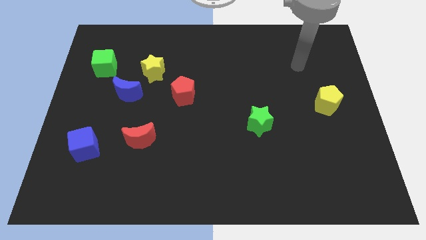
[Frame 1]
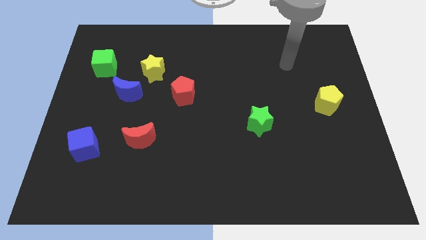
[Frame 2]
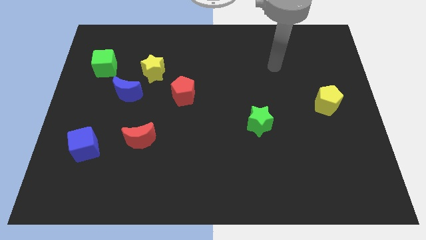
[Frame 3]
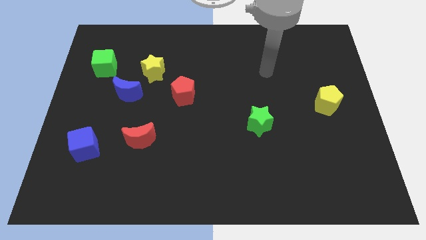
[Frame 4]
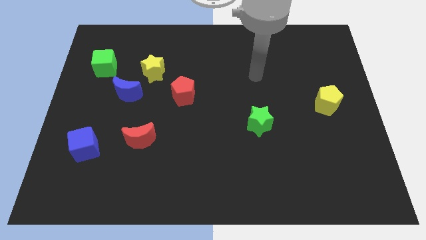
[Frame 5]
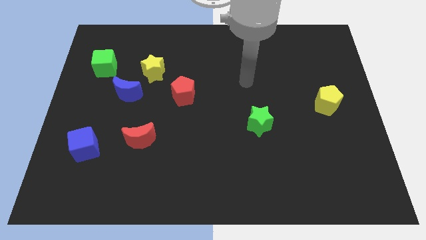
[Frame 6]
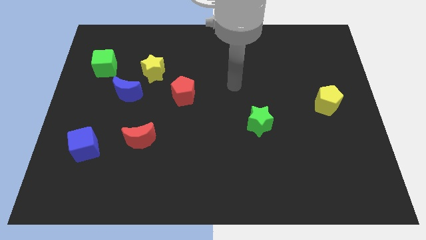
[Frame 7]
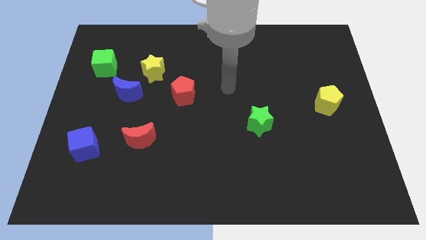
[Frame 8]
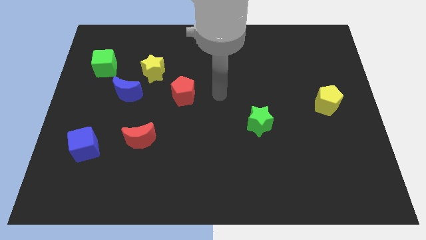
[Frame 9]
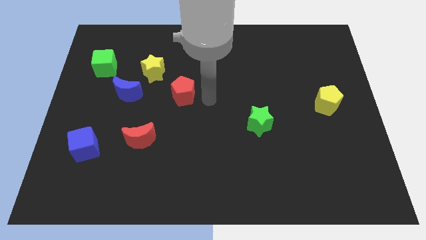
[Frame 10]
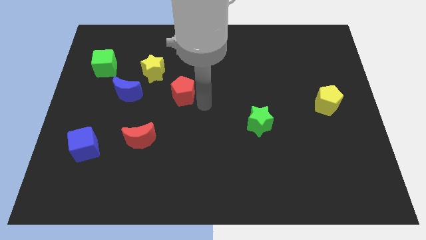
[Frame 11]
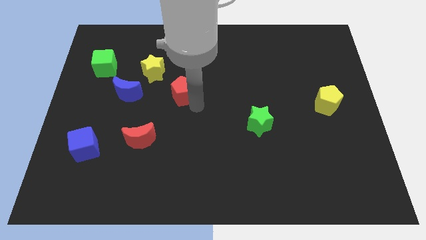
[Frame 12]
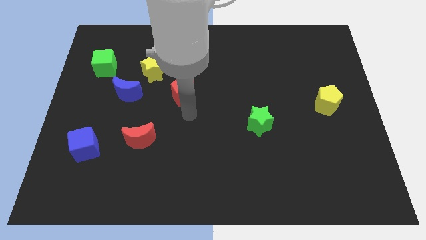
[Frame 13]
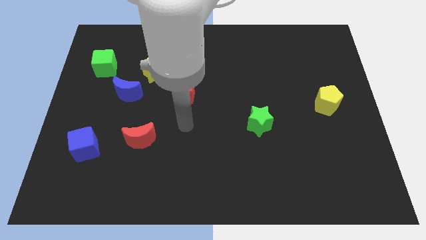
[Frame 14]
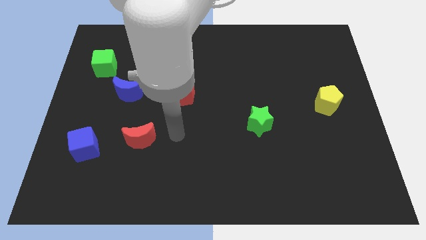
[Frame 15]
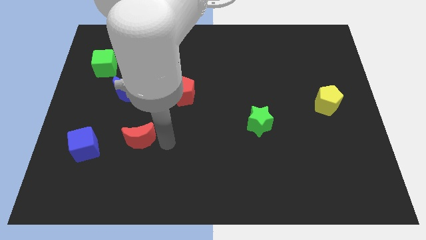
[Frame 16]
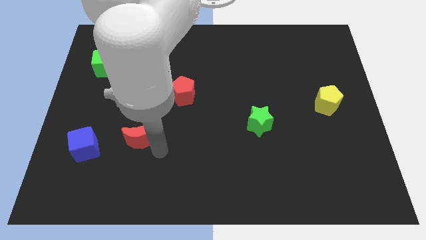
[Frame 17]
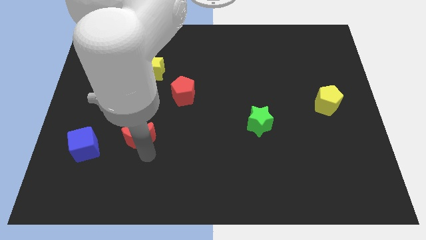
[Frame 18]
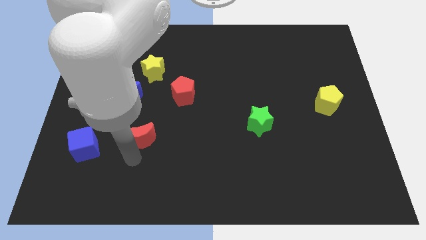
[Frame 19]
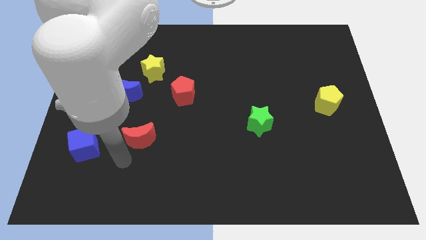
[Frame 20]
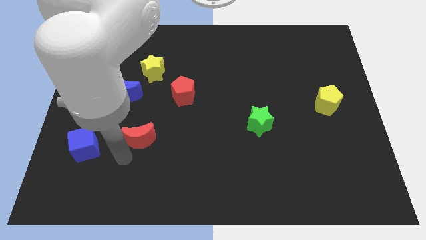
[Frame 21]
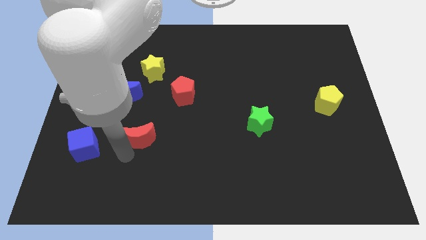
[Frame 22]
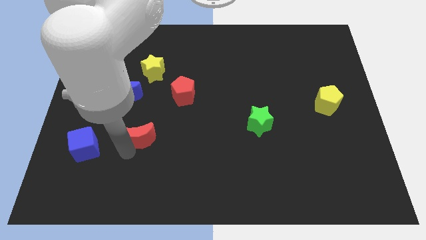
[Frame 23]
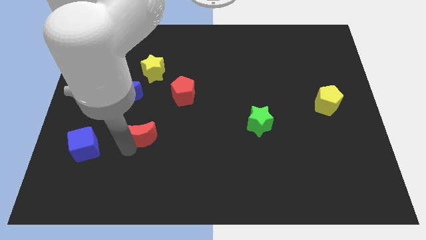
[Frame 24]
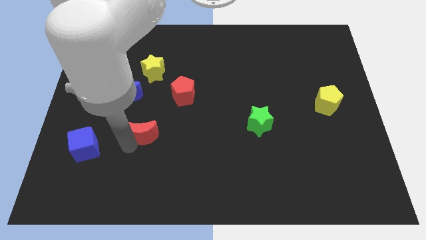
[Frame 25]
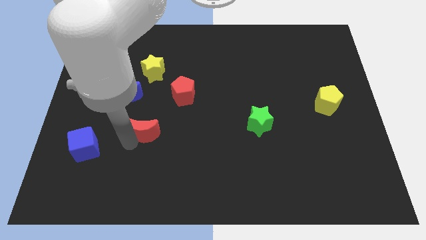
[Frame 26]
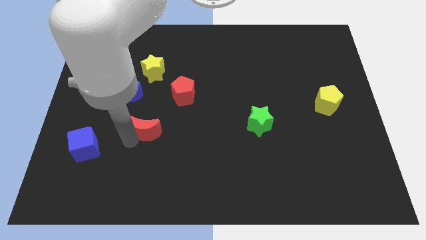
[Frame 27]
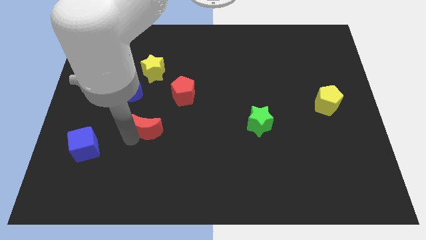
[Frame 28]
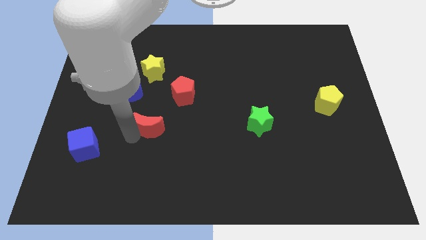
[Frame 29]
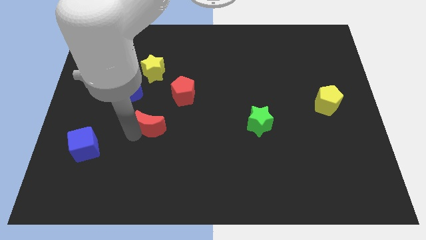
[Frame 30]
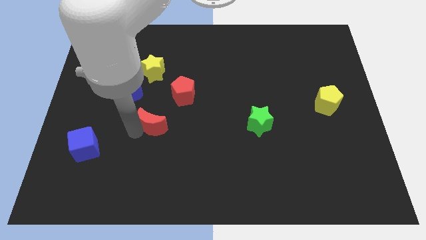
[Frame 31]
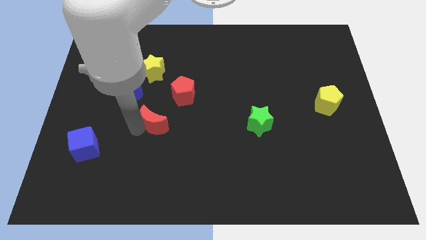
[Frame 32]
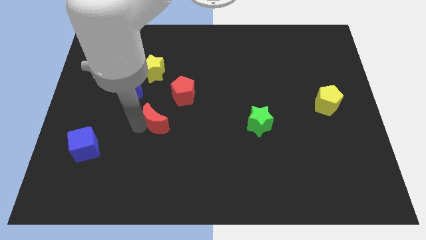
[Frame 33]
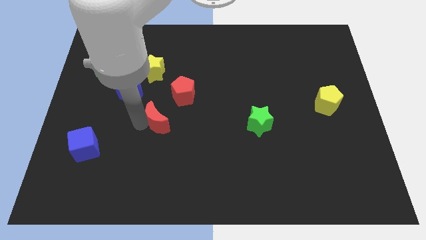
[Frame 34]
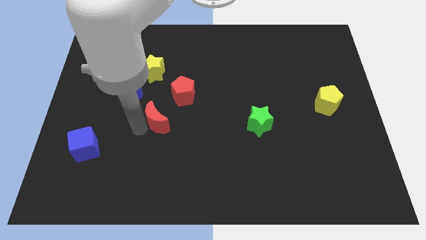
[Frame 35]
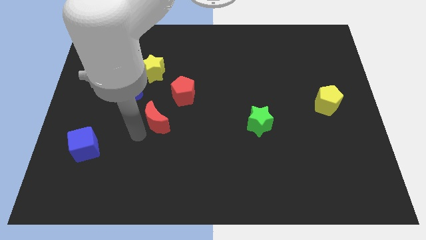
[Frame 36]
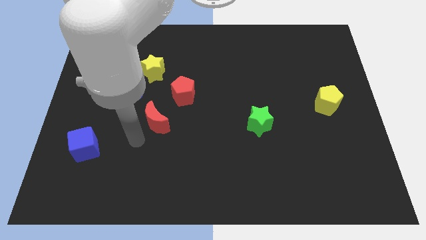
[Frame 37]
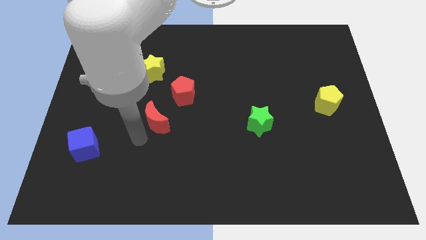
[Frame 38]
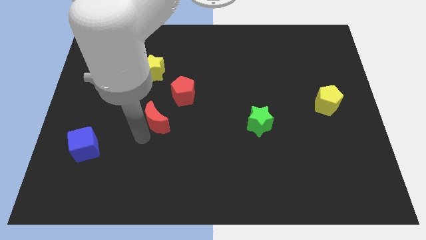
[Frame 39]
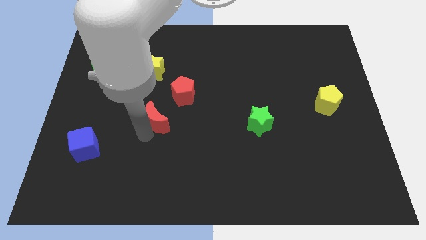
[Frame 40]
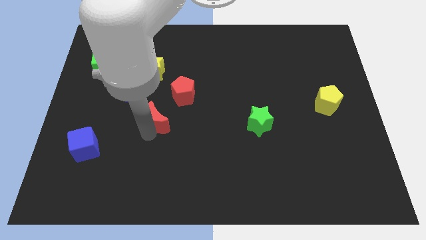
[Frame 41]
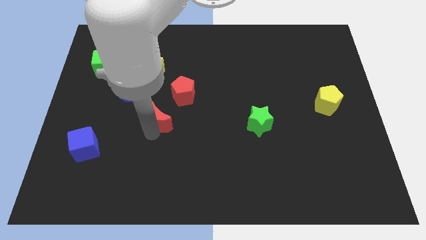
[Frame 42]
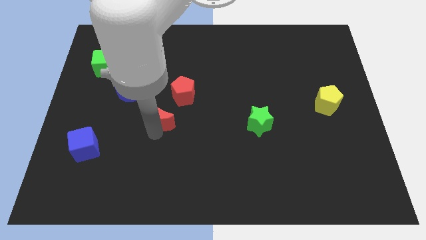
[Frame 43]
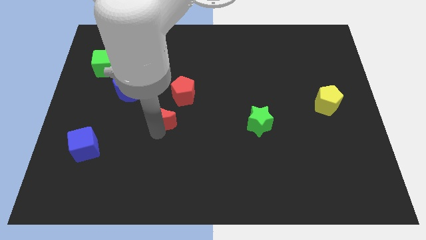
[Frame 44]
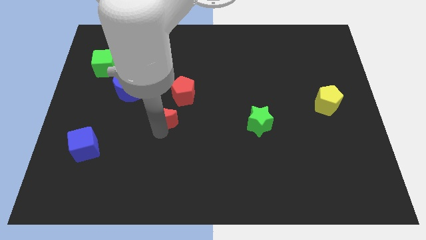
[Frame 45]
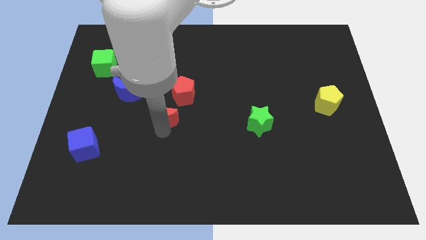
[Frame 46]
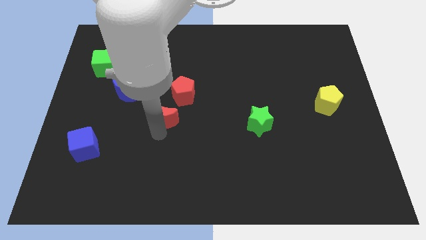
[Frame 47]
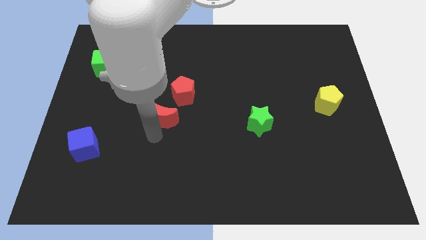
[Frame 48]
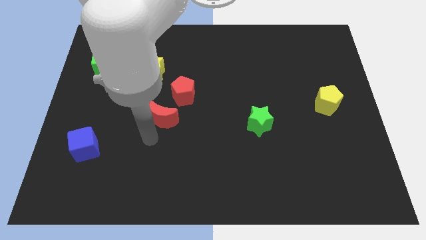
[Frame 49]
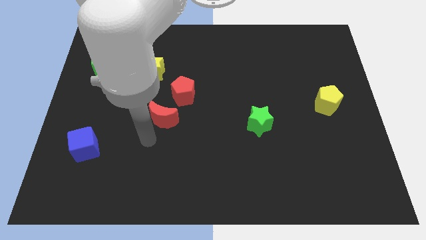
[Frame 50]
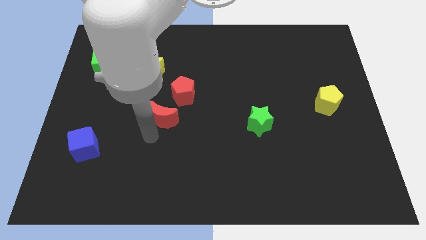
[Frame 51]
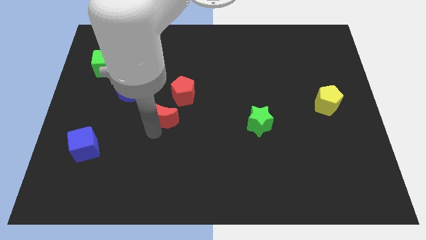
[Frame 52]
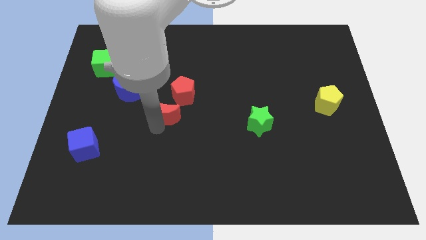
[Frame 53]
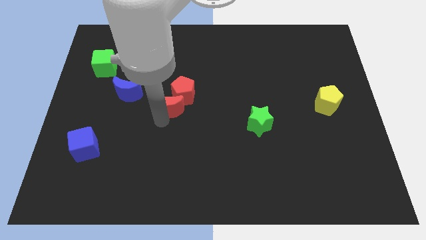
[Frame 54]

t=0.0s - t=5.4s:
slide the red moon close to the red pentagon

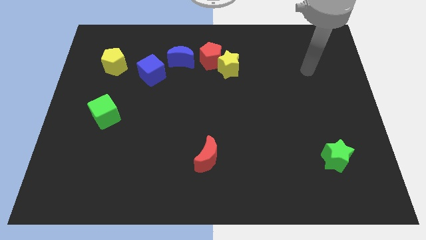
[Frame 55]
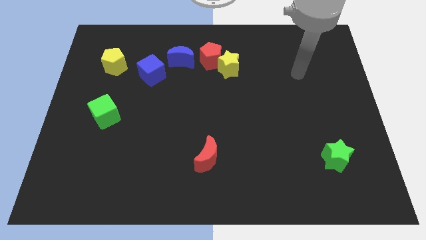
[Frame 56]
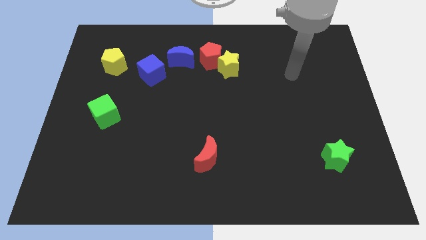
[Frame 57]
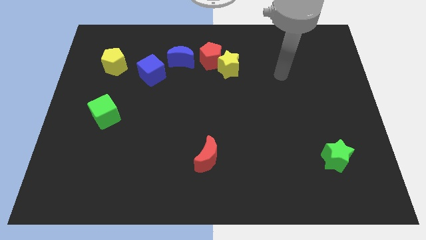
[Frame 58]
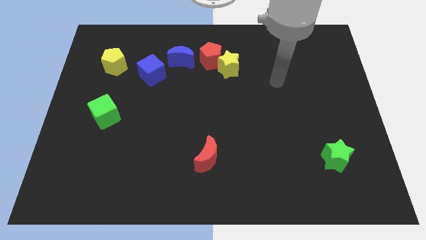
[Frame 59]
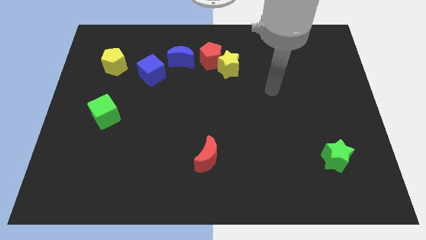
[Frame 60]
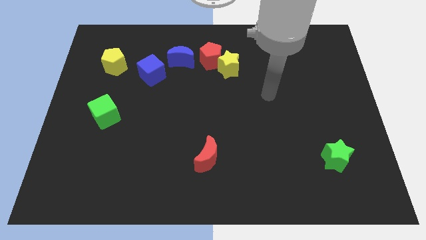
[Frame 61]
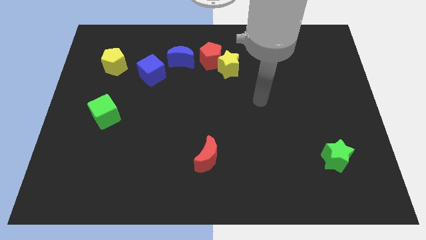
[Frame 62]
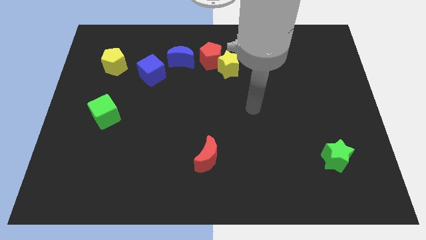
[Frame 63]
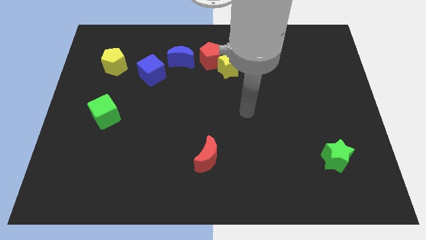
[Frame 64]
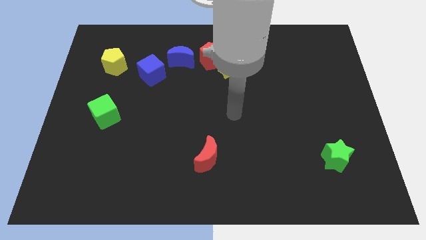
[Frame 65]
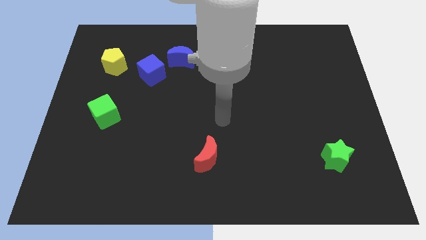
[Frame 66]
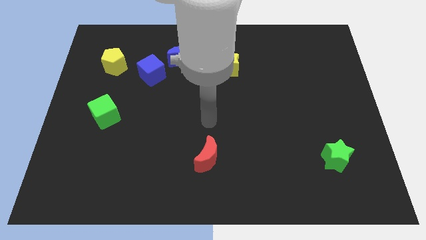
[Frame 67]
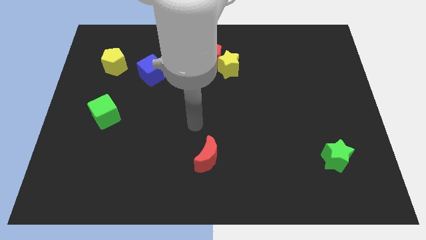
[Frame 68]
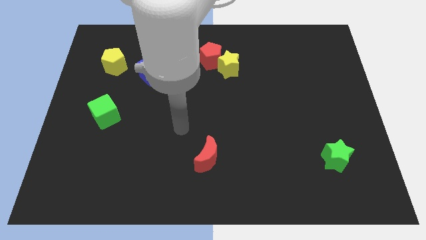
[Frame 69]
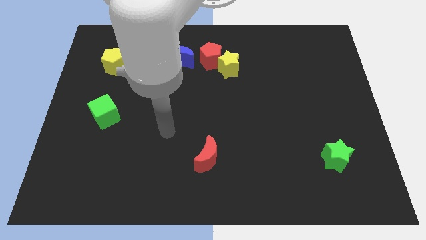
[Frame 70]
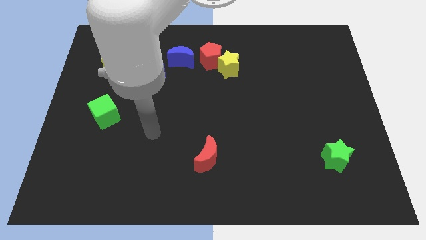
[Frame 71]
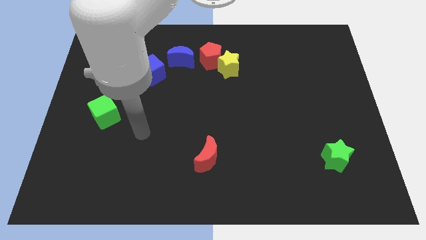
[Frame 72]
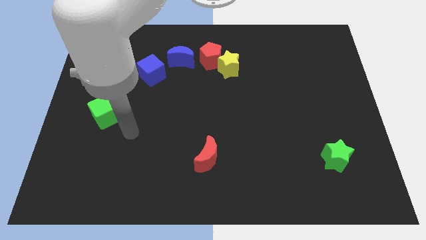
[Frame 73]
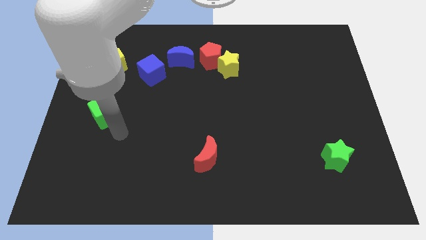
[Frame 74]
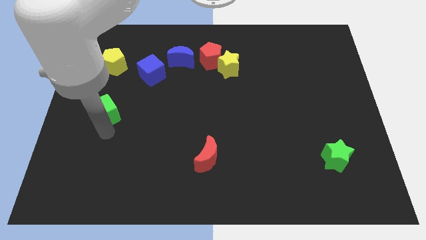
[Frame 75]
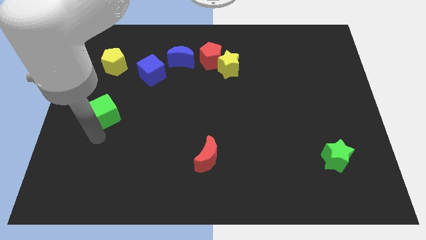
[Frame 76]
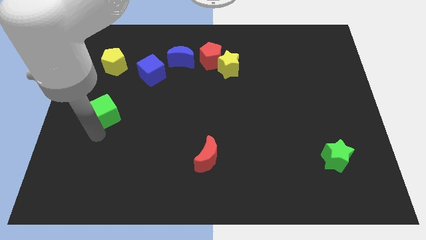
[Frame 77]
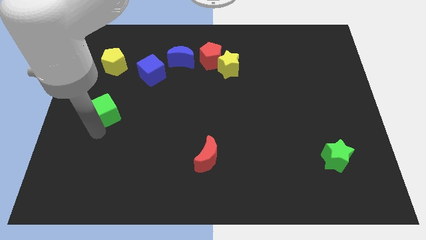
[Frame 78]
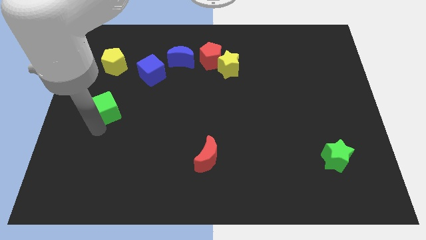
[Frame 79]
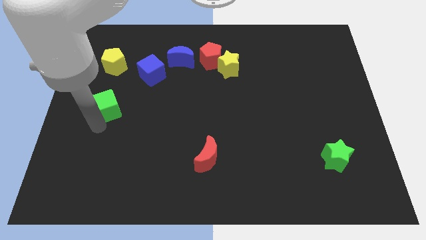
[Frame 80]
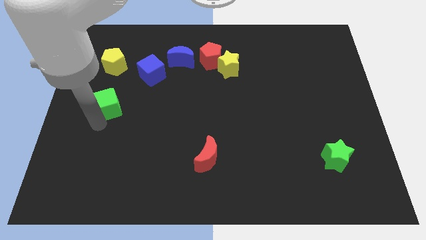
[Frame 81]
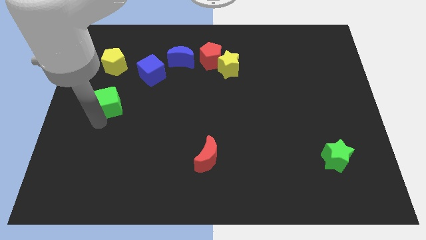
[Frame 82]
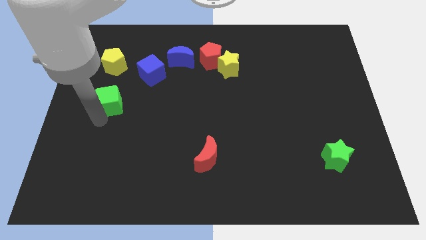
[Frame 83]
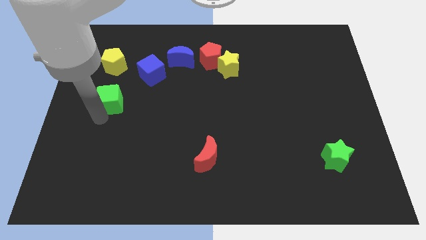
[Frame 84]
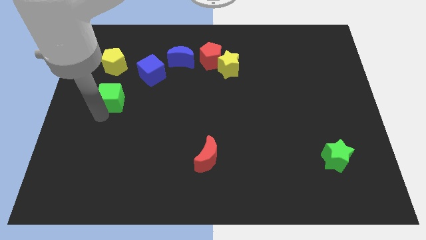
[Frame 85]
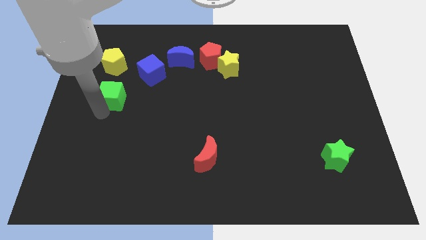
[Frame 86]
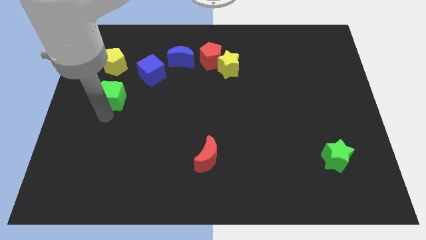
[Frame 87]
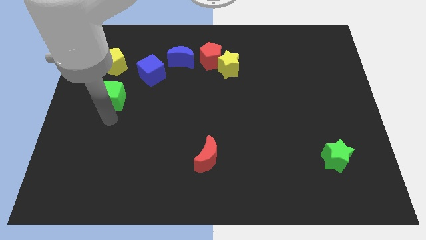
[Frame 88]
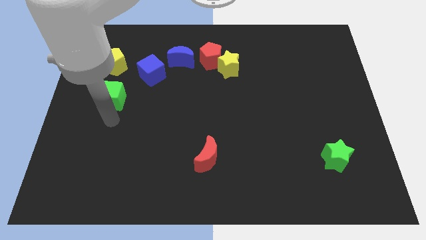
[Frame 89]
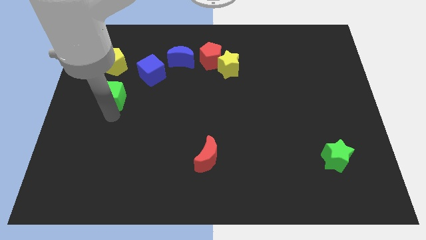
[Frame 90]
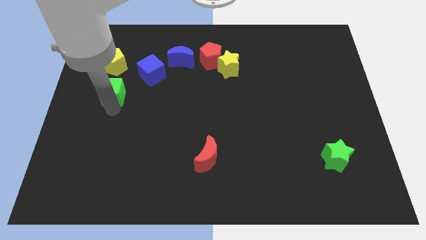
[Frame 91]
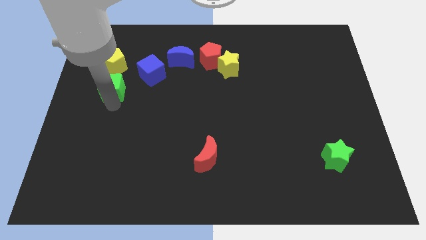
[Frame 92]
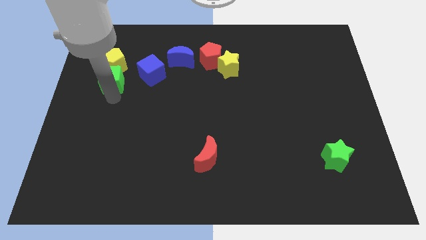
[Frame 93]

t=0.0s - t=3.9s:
put the green cube next to the yellow pentagon
